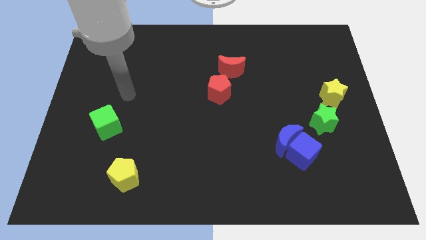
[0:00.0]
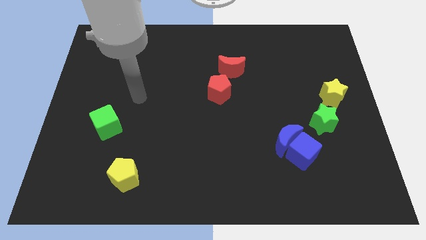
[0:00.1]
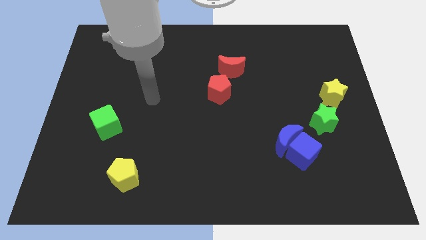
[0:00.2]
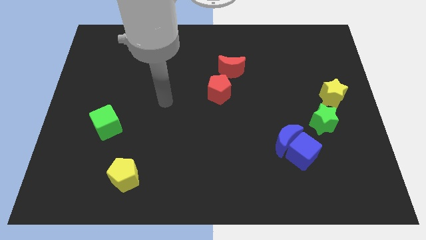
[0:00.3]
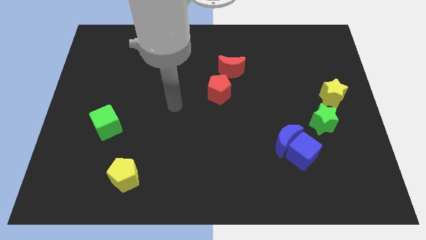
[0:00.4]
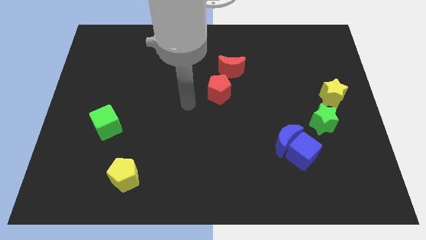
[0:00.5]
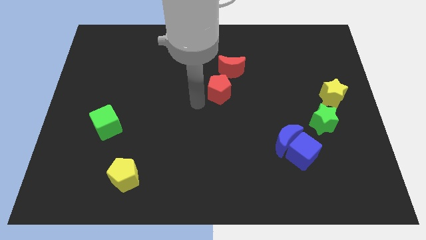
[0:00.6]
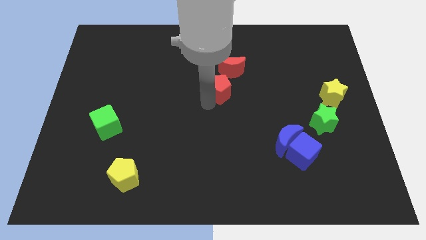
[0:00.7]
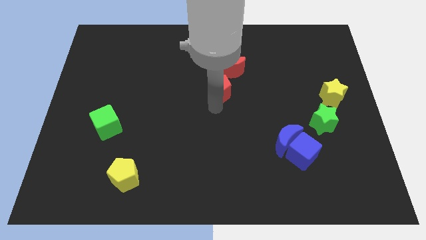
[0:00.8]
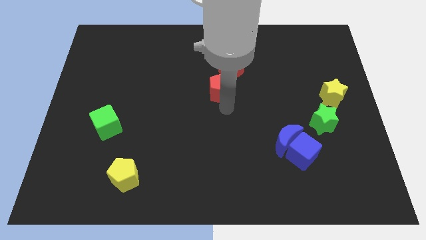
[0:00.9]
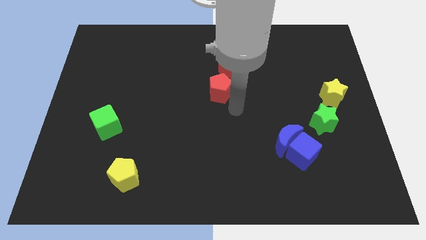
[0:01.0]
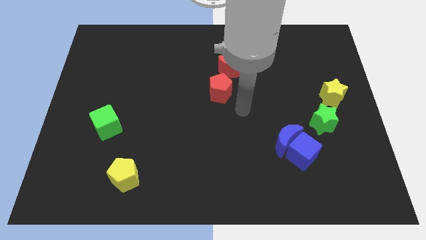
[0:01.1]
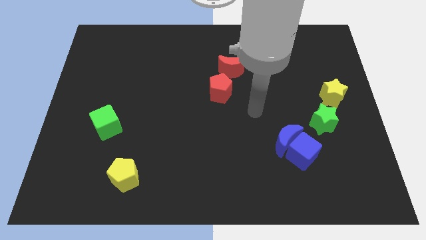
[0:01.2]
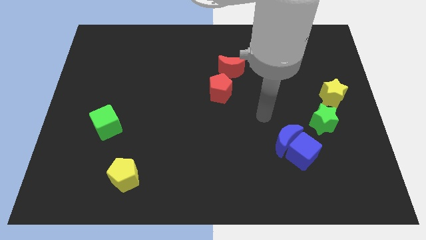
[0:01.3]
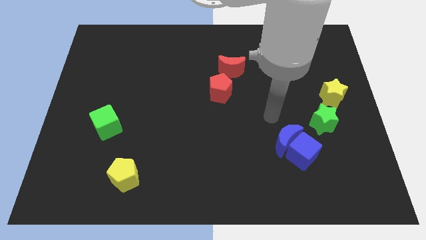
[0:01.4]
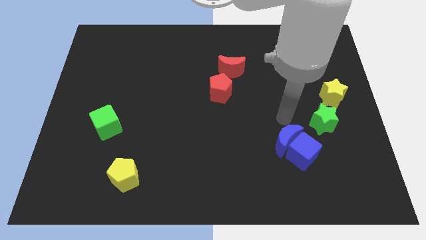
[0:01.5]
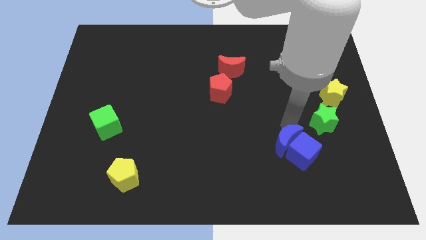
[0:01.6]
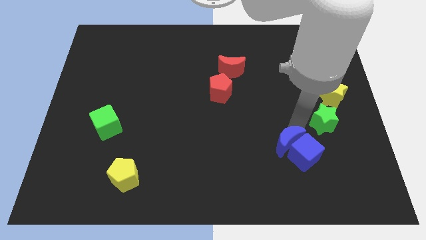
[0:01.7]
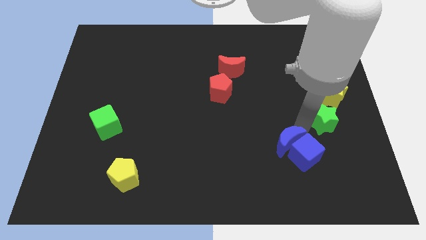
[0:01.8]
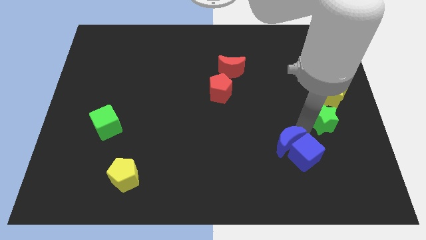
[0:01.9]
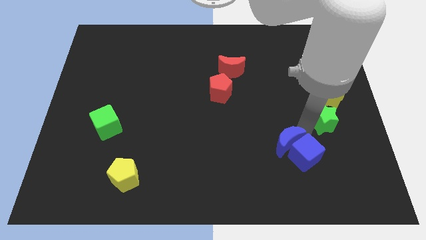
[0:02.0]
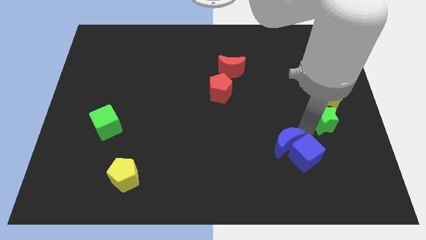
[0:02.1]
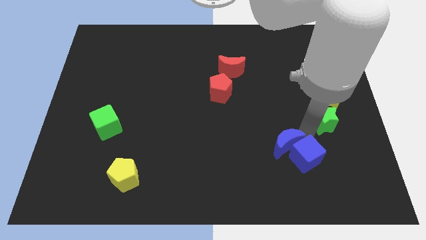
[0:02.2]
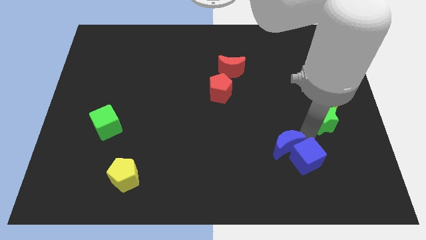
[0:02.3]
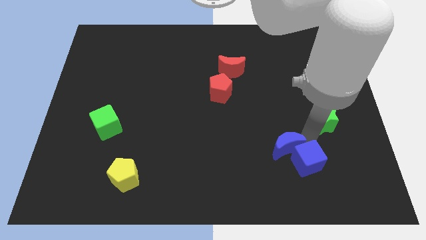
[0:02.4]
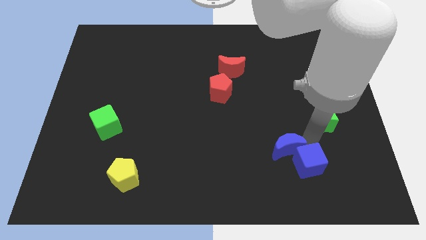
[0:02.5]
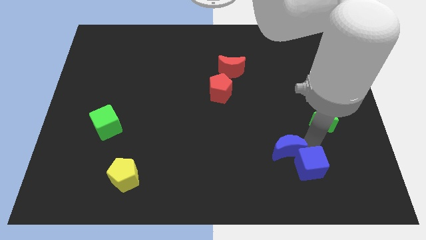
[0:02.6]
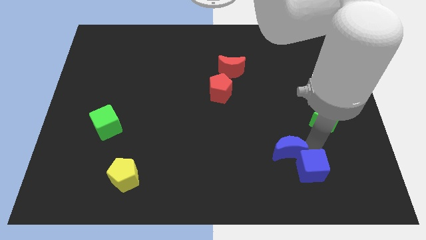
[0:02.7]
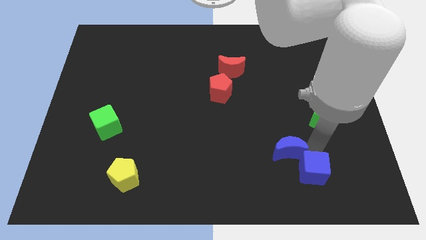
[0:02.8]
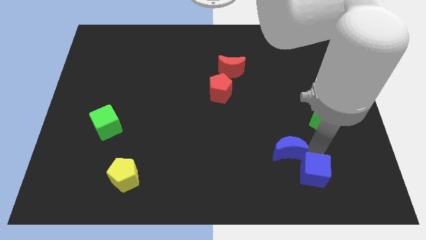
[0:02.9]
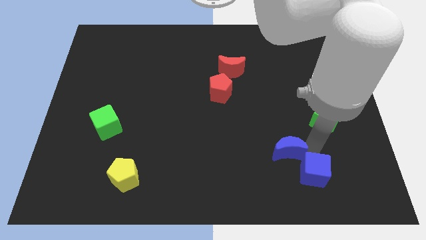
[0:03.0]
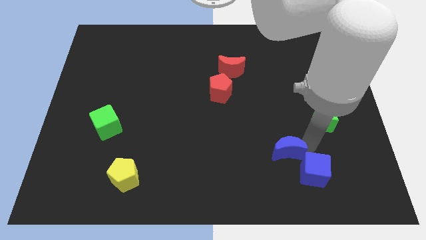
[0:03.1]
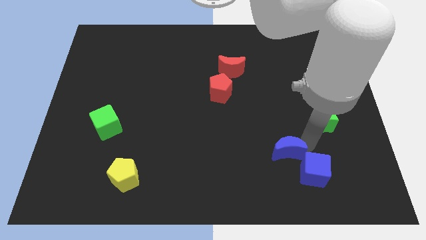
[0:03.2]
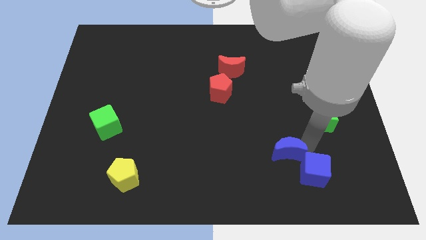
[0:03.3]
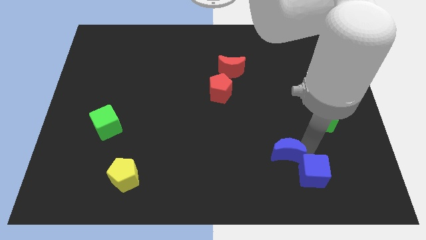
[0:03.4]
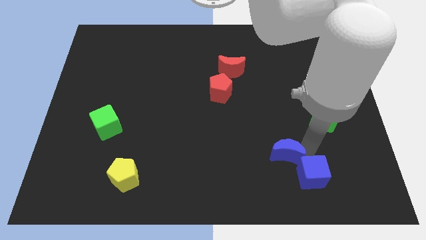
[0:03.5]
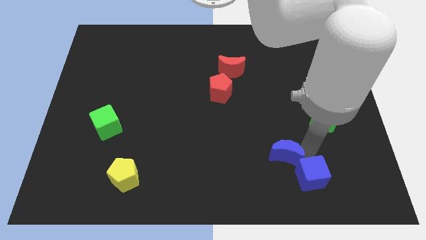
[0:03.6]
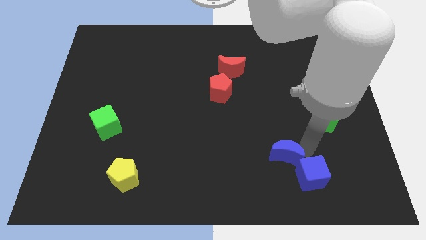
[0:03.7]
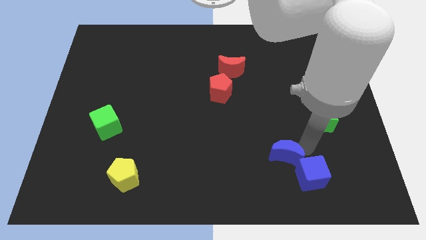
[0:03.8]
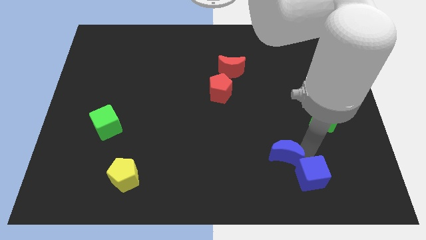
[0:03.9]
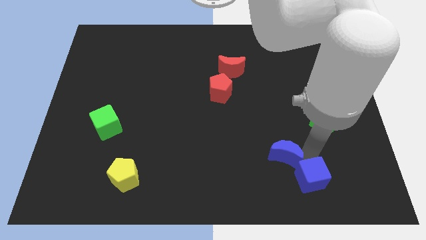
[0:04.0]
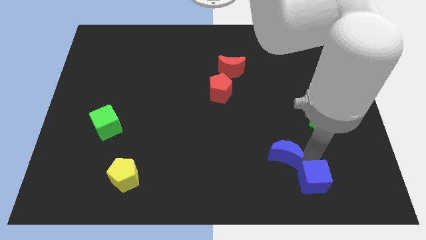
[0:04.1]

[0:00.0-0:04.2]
pull the blue cube apart from the blue moon and green star

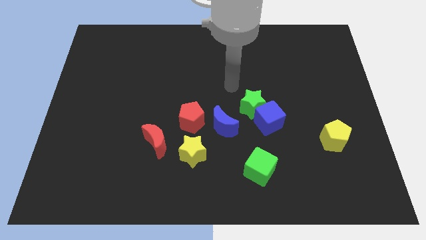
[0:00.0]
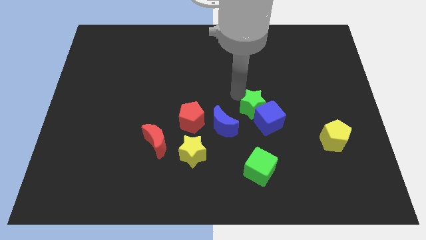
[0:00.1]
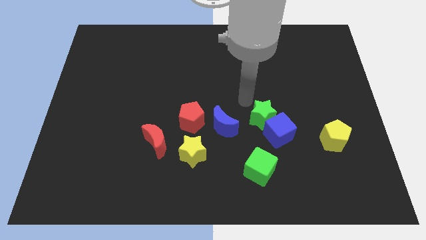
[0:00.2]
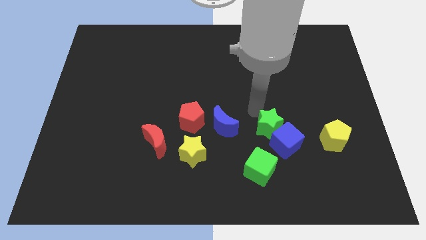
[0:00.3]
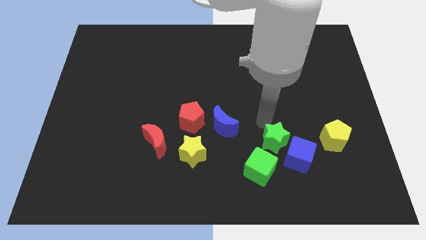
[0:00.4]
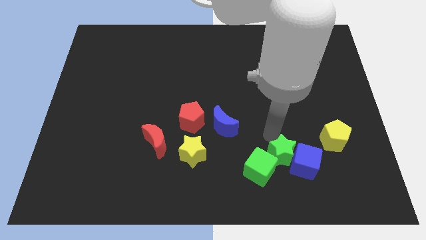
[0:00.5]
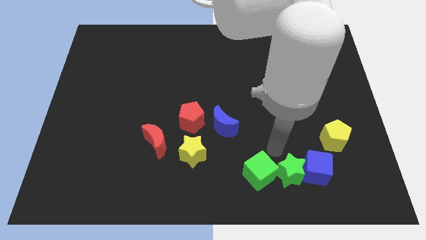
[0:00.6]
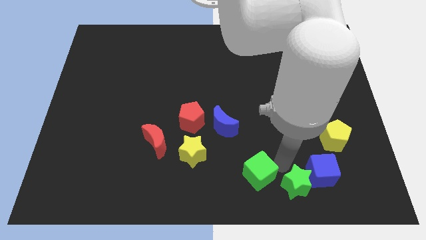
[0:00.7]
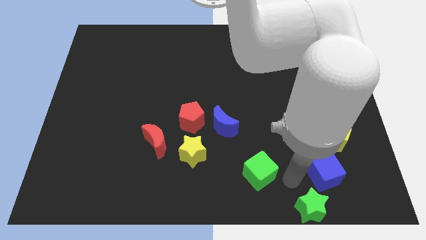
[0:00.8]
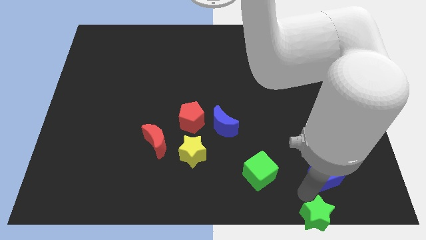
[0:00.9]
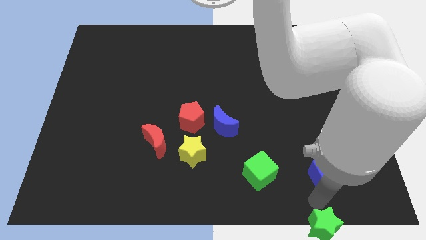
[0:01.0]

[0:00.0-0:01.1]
separate the blue cube from the green star

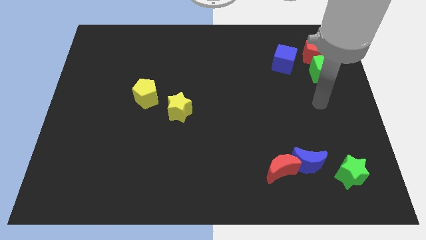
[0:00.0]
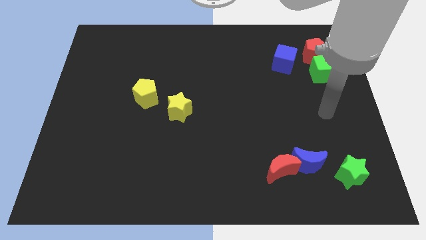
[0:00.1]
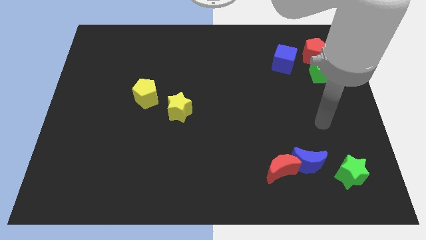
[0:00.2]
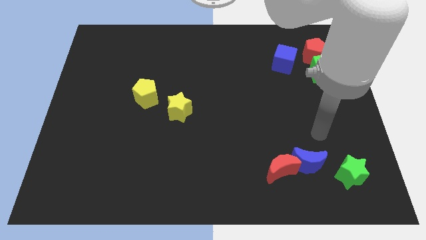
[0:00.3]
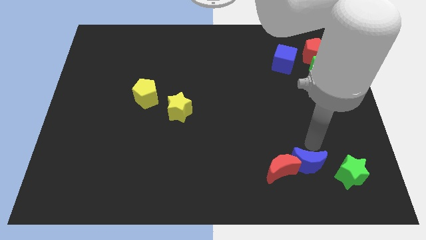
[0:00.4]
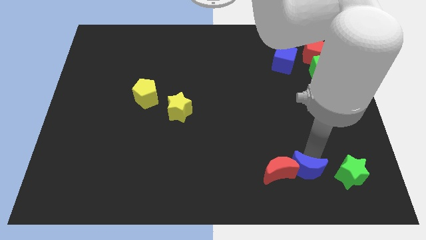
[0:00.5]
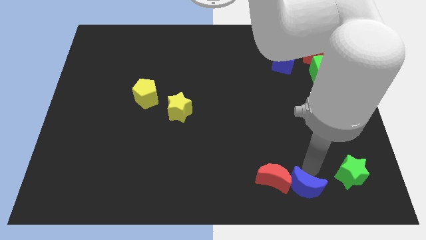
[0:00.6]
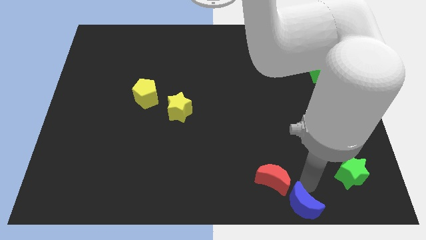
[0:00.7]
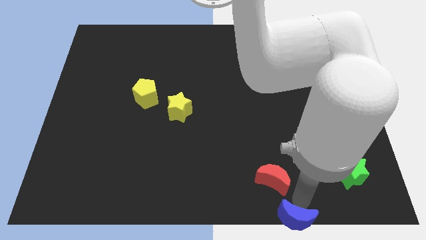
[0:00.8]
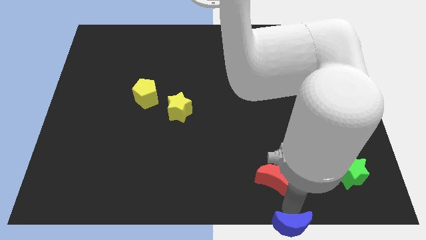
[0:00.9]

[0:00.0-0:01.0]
pull the red moon apart from the blue moon

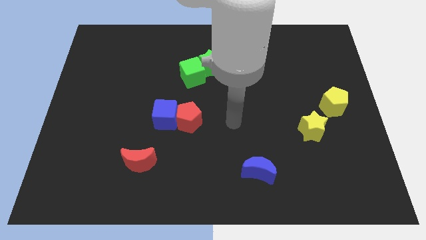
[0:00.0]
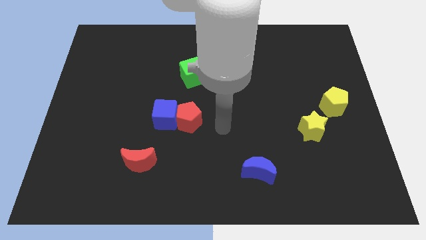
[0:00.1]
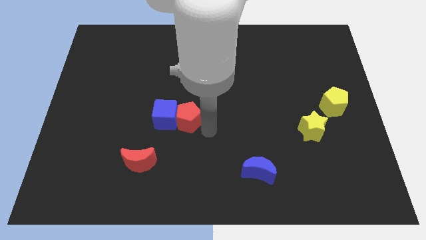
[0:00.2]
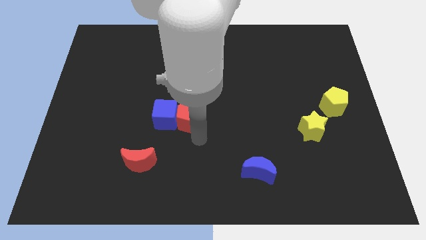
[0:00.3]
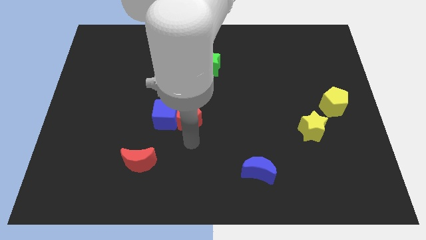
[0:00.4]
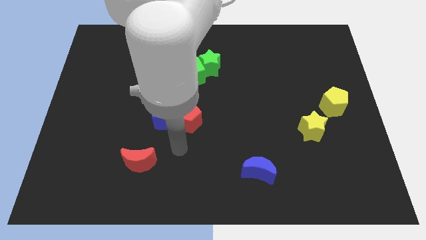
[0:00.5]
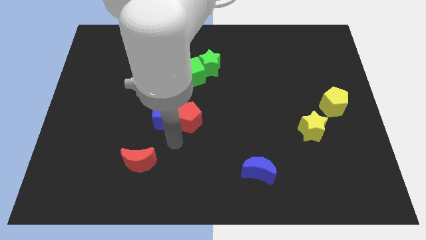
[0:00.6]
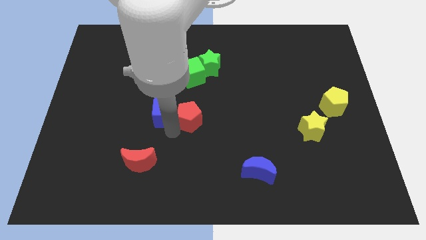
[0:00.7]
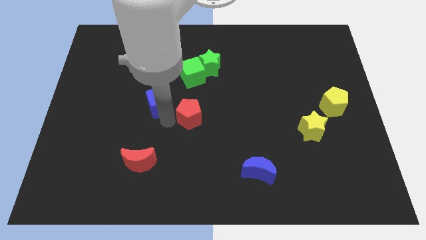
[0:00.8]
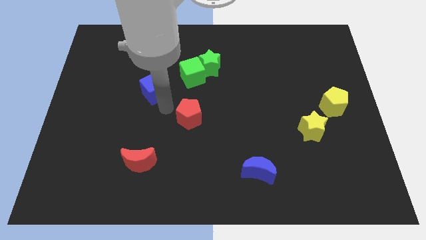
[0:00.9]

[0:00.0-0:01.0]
move the red pentagon away from the blue cube

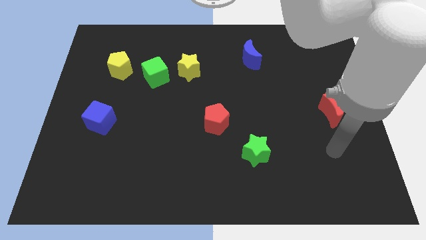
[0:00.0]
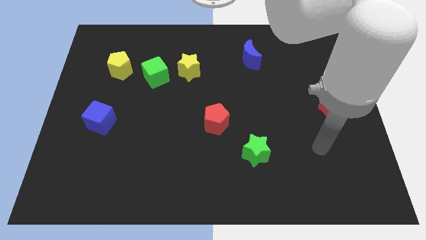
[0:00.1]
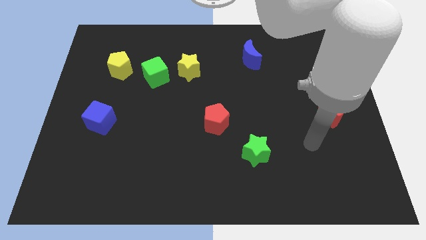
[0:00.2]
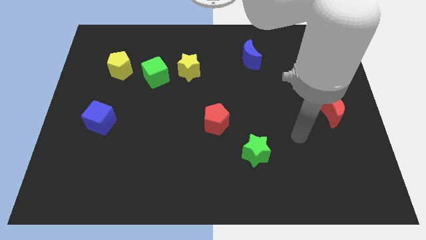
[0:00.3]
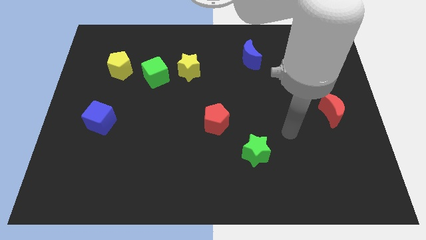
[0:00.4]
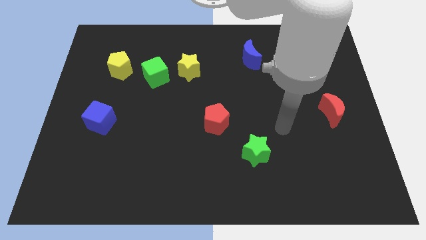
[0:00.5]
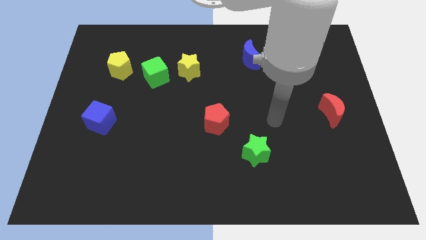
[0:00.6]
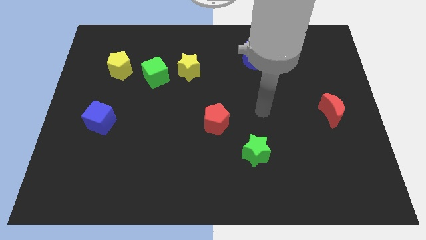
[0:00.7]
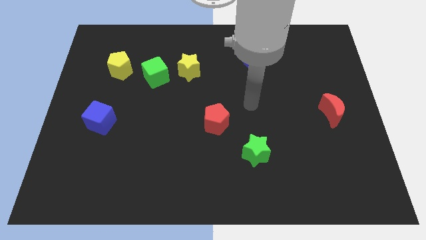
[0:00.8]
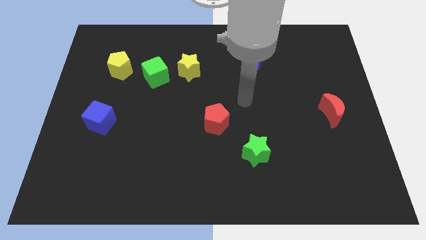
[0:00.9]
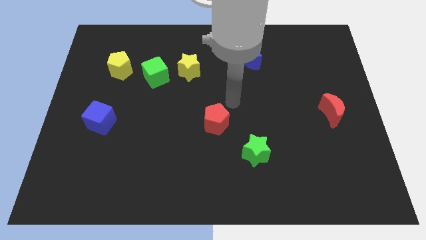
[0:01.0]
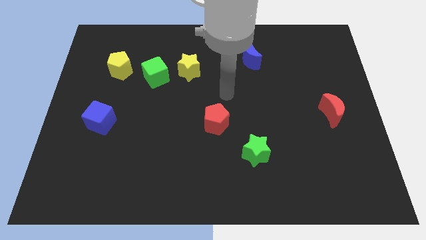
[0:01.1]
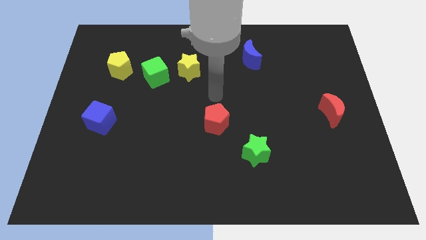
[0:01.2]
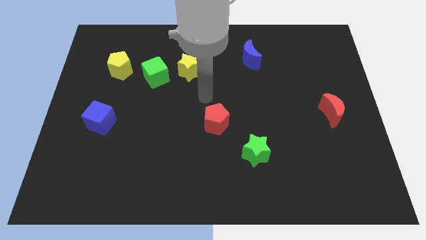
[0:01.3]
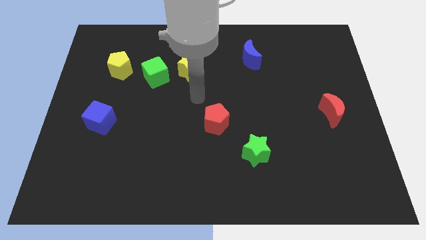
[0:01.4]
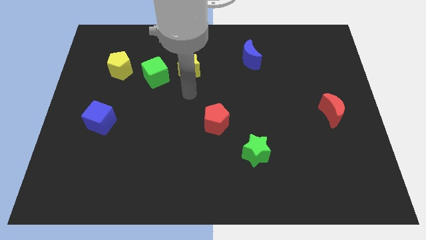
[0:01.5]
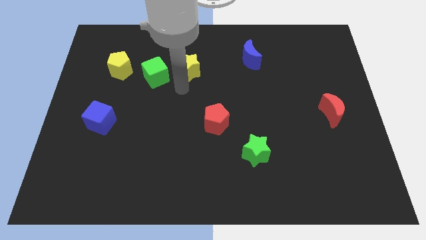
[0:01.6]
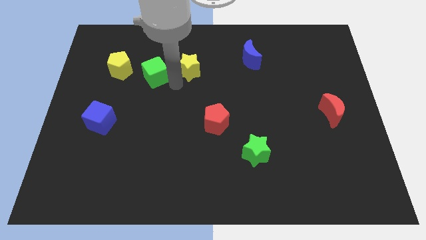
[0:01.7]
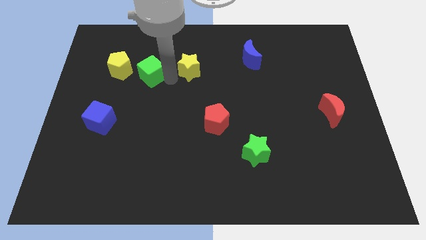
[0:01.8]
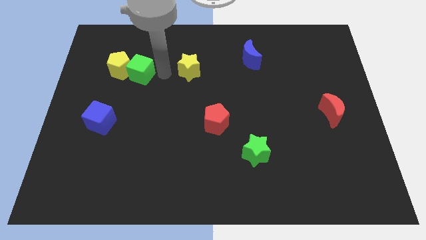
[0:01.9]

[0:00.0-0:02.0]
separate the yellow star from the green cube
